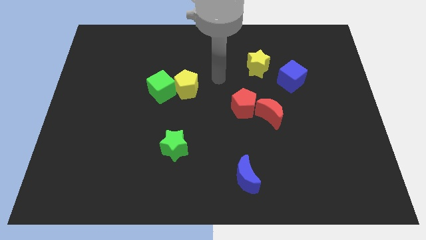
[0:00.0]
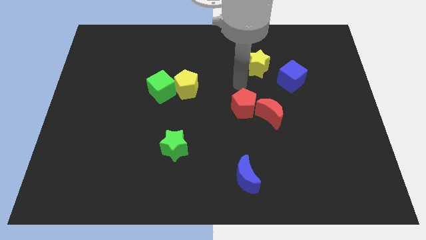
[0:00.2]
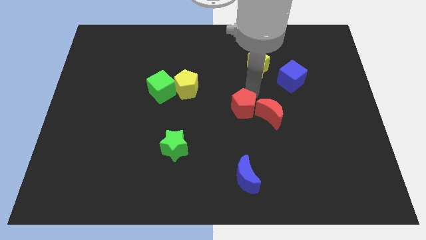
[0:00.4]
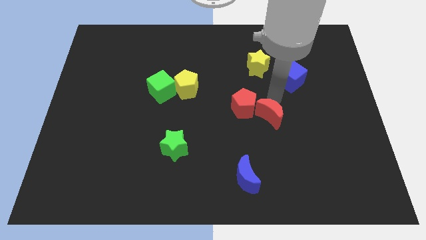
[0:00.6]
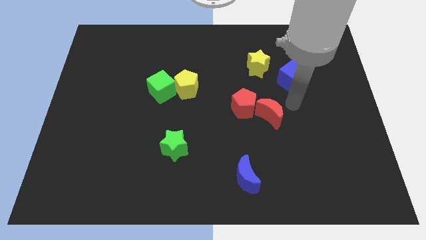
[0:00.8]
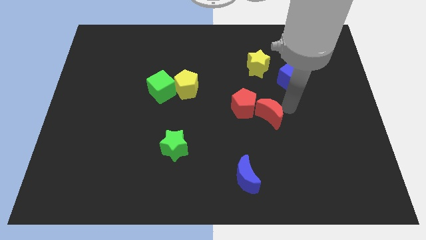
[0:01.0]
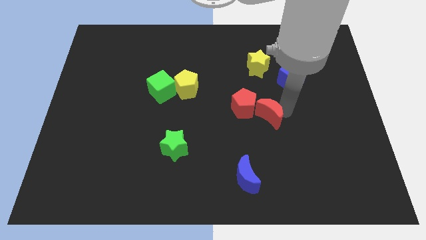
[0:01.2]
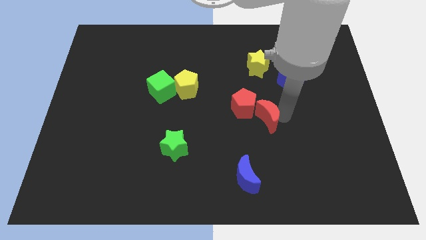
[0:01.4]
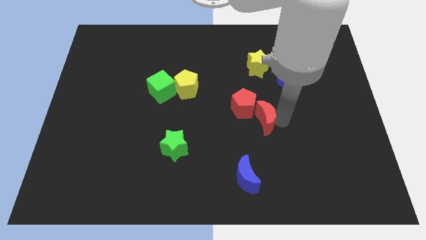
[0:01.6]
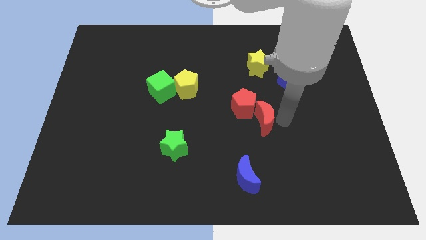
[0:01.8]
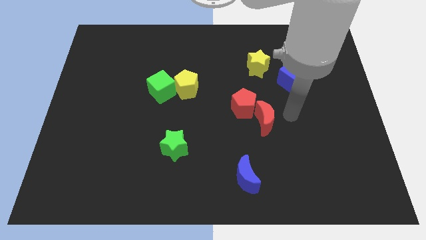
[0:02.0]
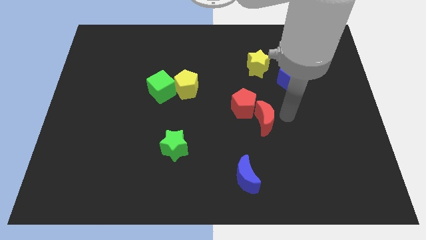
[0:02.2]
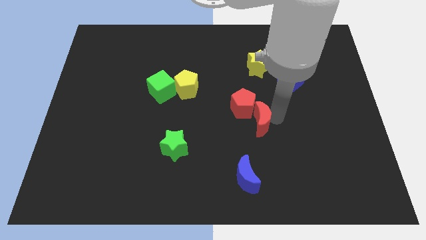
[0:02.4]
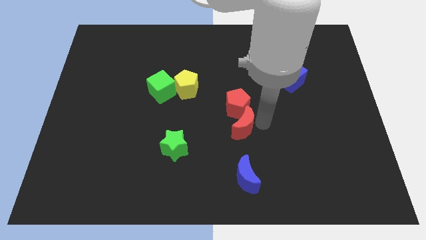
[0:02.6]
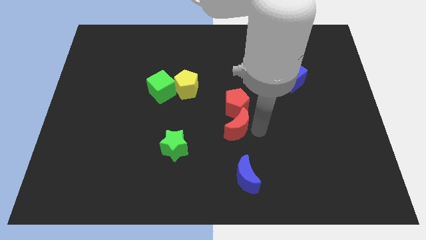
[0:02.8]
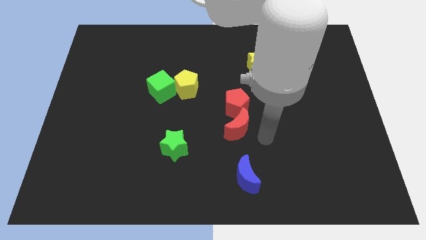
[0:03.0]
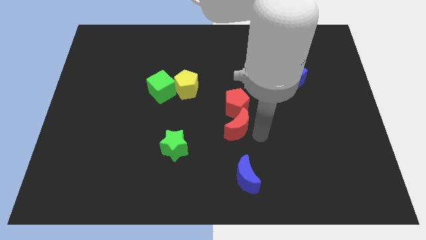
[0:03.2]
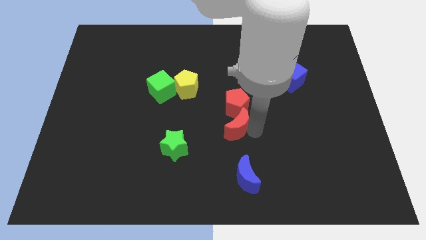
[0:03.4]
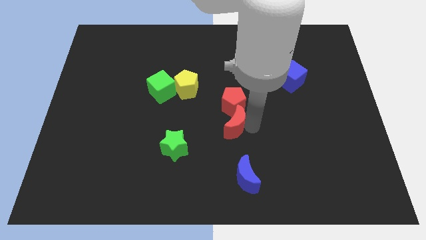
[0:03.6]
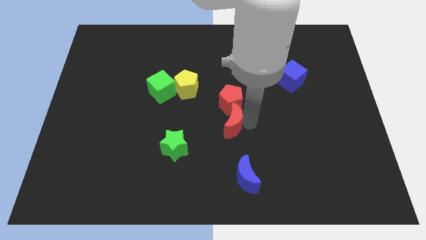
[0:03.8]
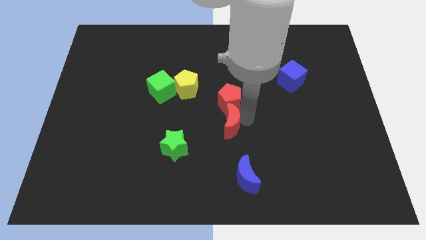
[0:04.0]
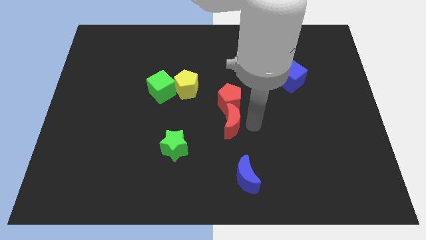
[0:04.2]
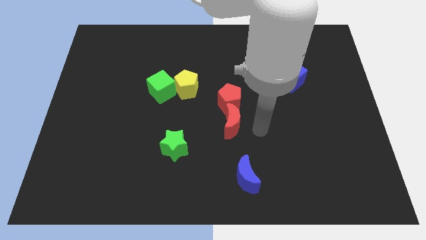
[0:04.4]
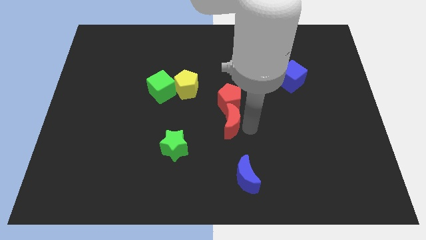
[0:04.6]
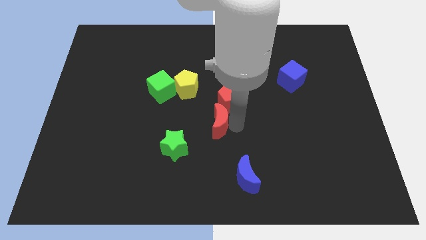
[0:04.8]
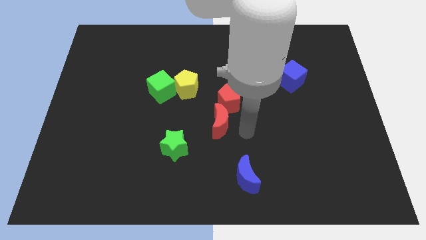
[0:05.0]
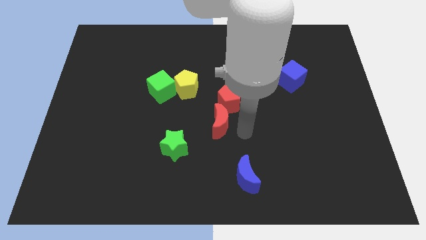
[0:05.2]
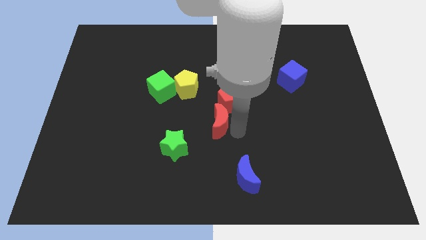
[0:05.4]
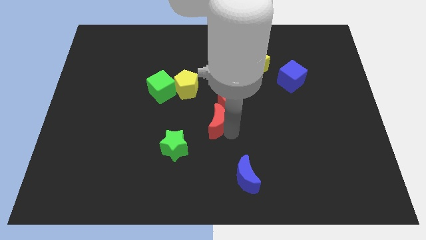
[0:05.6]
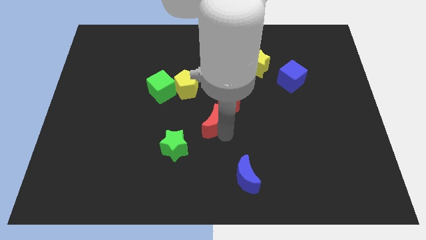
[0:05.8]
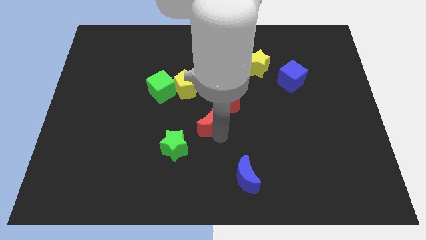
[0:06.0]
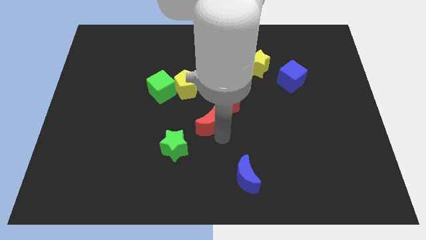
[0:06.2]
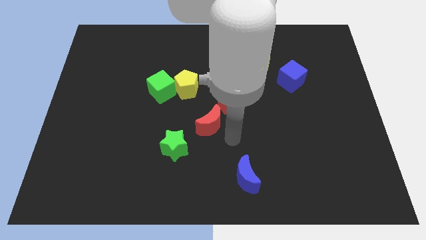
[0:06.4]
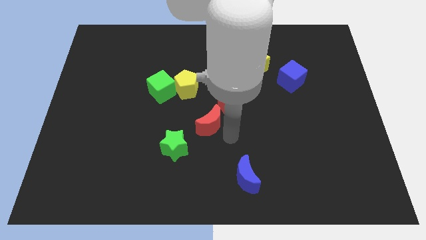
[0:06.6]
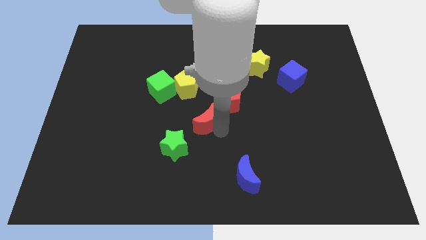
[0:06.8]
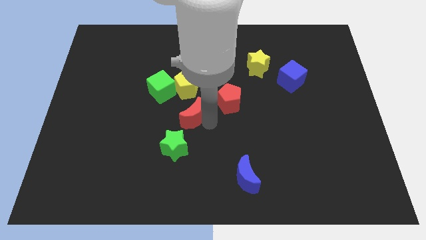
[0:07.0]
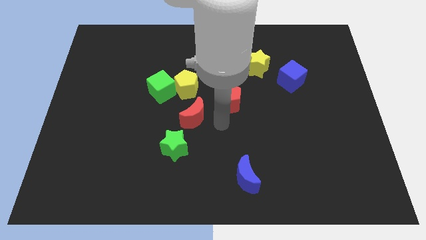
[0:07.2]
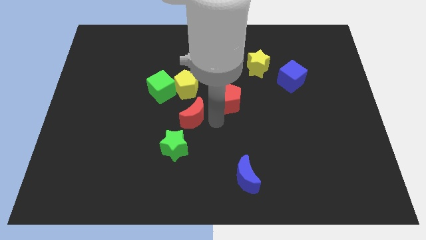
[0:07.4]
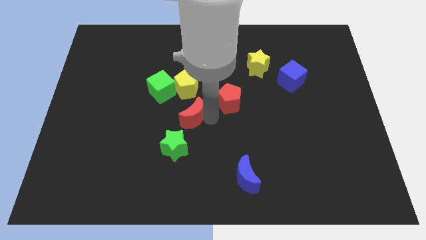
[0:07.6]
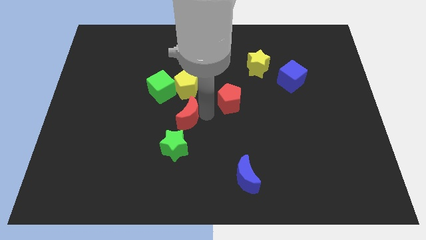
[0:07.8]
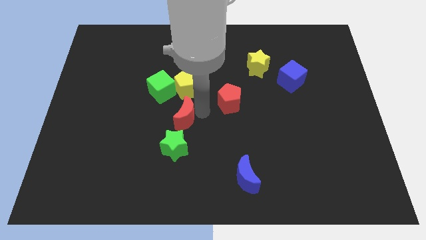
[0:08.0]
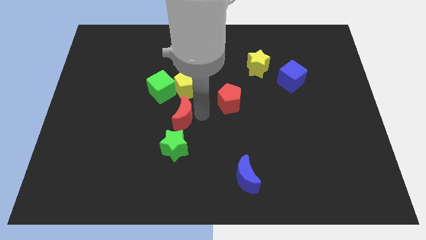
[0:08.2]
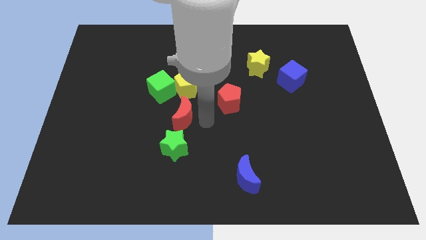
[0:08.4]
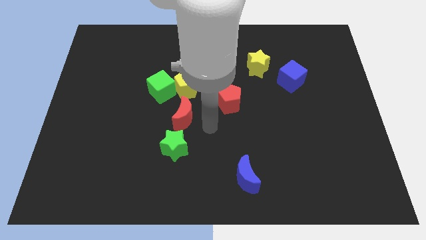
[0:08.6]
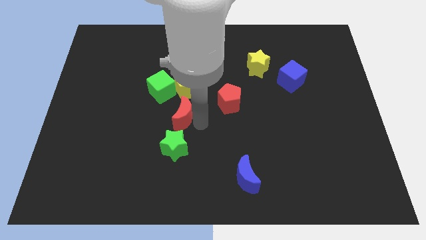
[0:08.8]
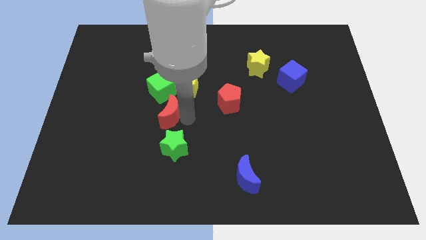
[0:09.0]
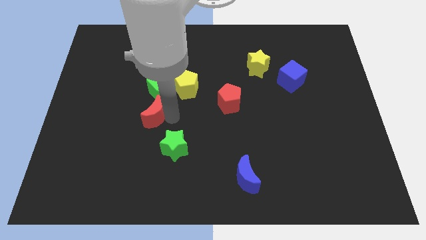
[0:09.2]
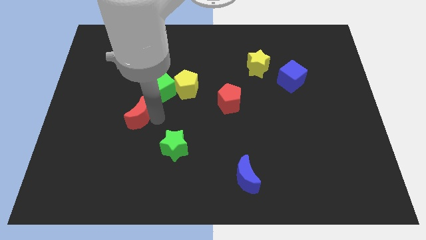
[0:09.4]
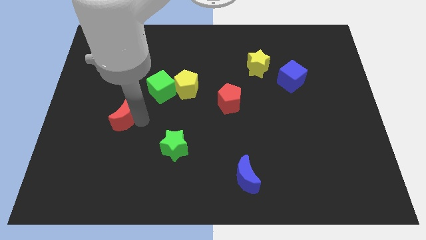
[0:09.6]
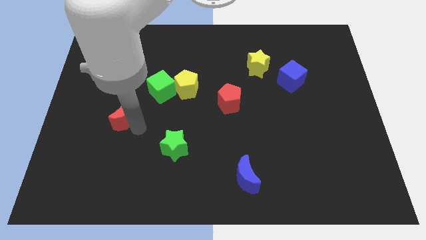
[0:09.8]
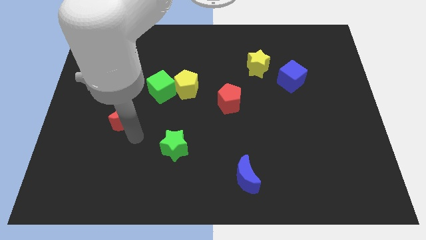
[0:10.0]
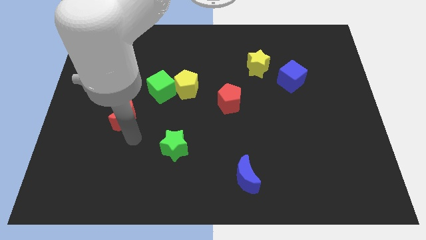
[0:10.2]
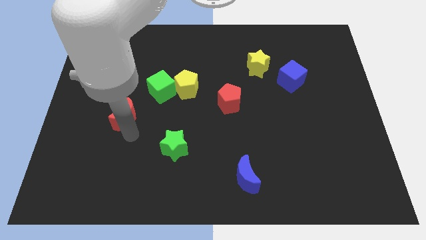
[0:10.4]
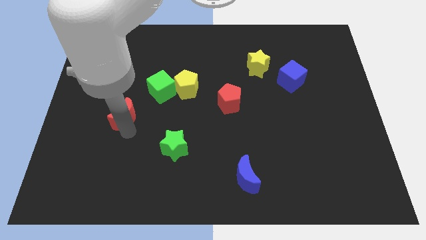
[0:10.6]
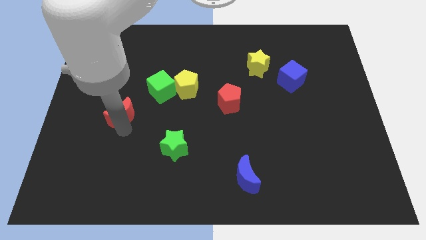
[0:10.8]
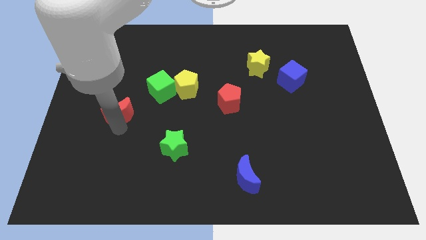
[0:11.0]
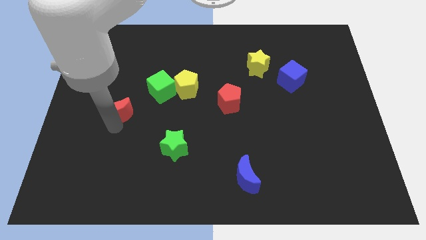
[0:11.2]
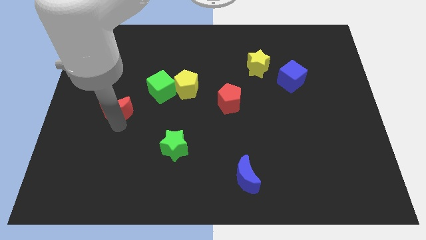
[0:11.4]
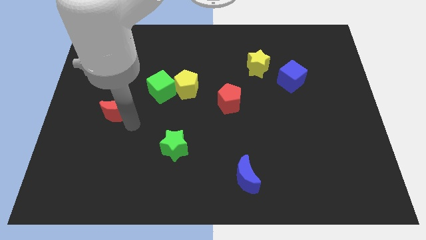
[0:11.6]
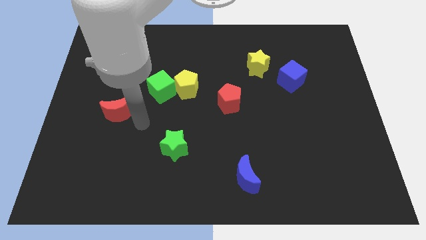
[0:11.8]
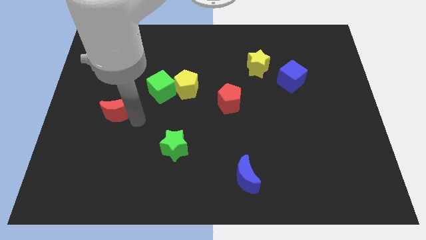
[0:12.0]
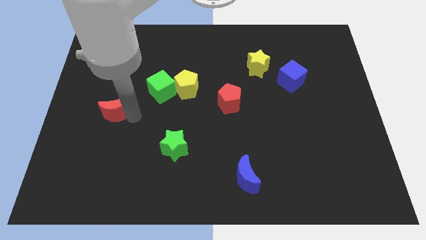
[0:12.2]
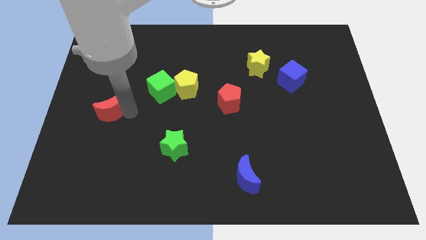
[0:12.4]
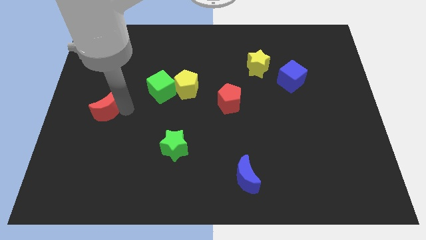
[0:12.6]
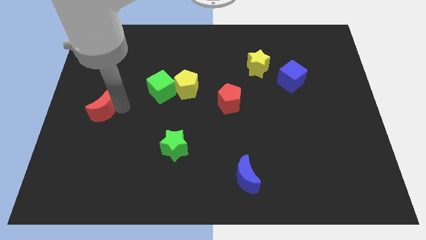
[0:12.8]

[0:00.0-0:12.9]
slide the red moon to the left side of the board

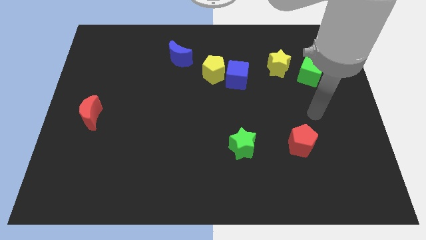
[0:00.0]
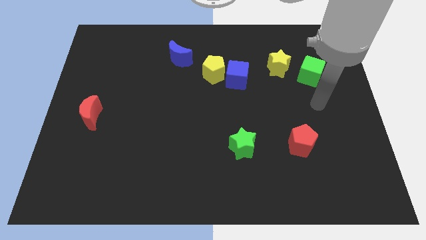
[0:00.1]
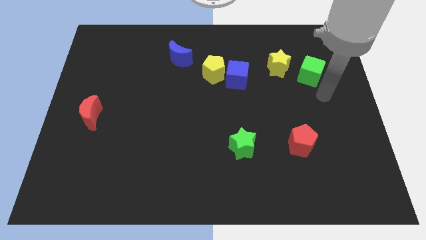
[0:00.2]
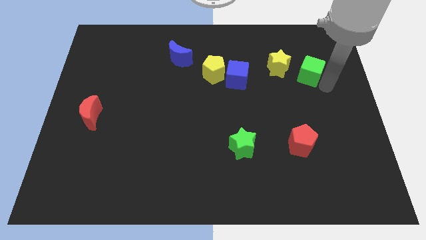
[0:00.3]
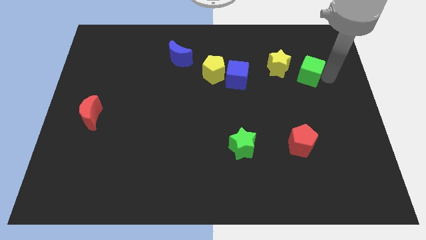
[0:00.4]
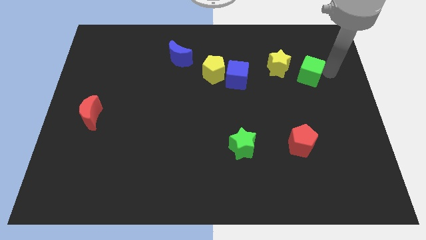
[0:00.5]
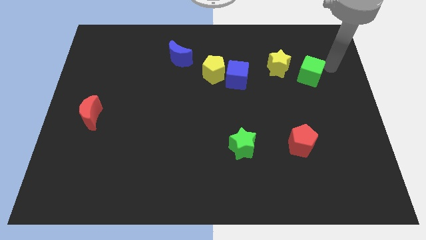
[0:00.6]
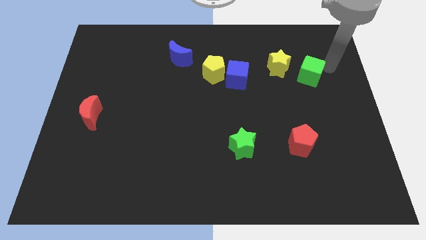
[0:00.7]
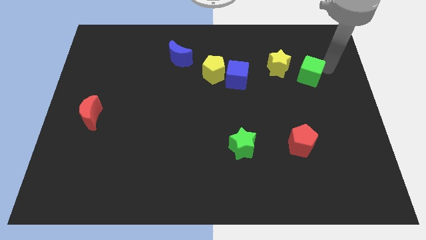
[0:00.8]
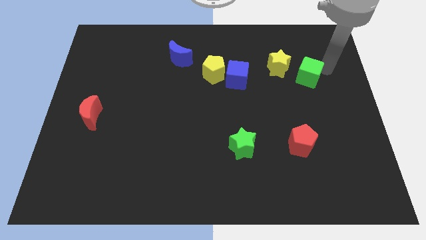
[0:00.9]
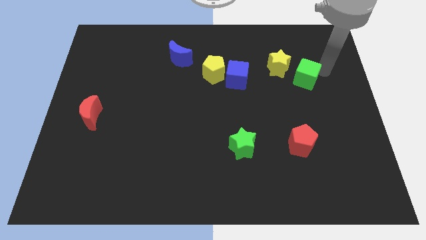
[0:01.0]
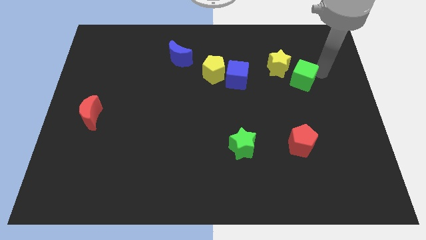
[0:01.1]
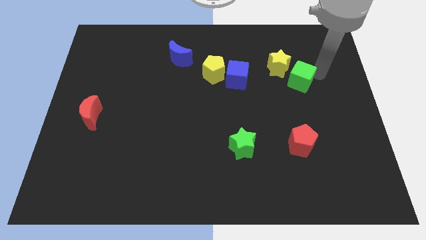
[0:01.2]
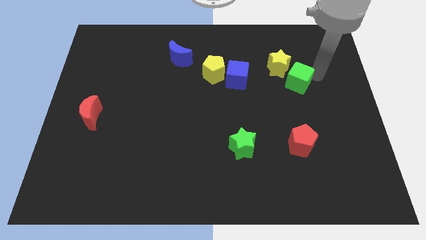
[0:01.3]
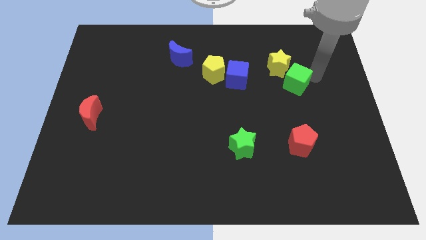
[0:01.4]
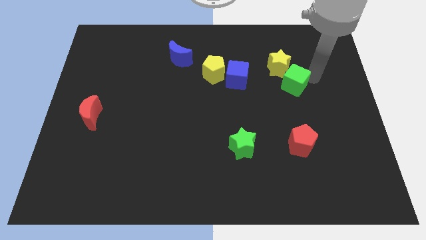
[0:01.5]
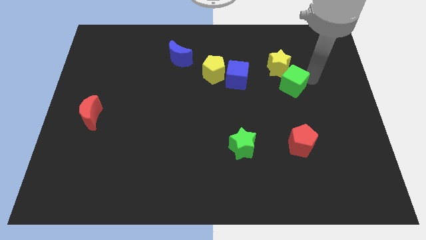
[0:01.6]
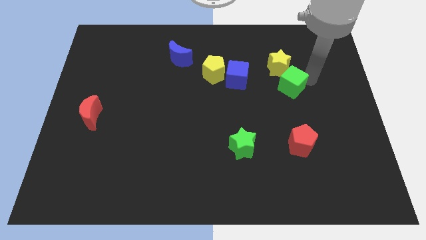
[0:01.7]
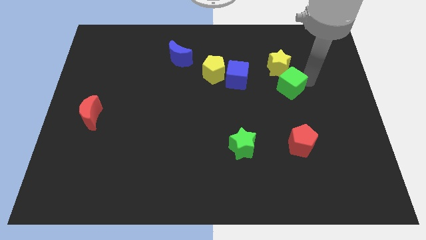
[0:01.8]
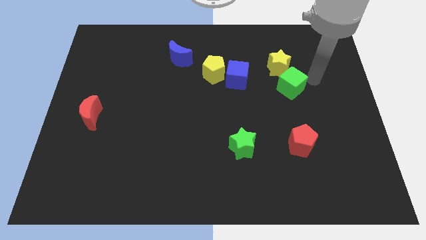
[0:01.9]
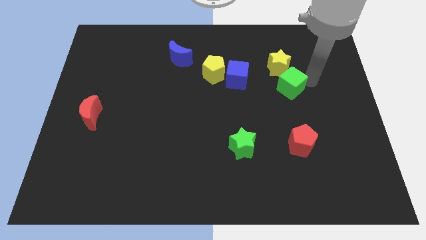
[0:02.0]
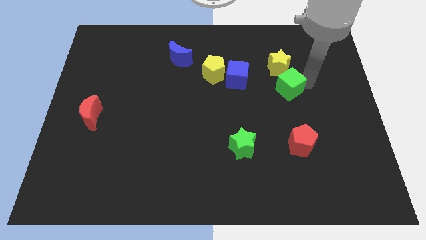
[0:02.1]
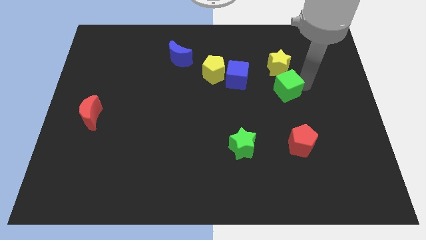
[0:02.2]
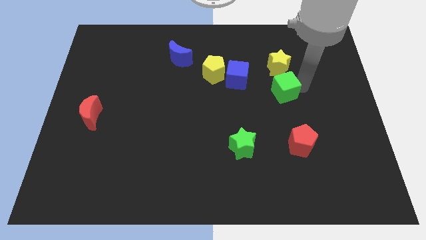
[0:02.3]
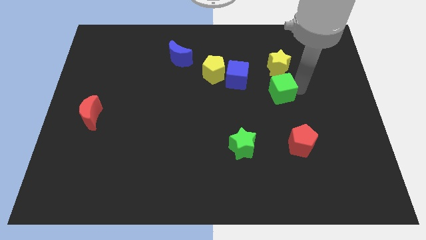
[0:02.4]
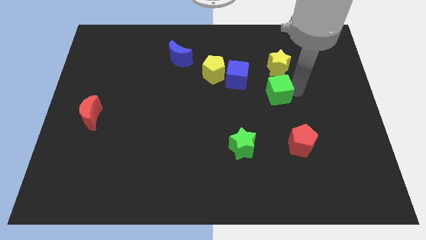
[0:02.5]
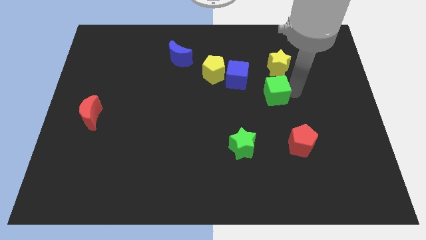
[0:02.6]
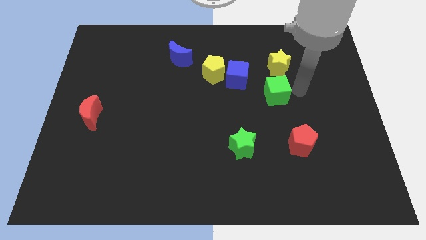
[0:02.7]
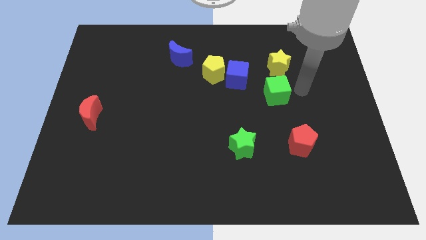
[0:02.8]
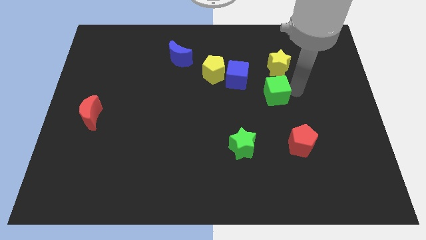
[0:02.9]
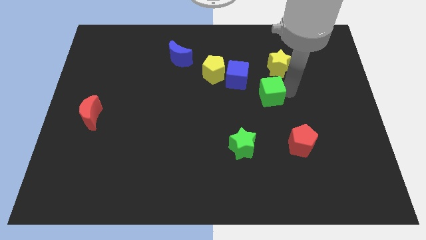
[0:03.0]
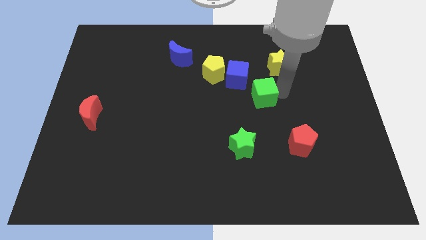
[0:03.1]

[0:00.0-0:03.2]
slide the green cube to the middle
